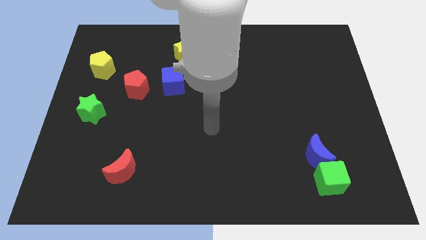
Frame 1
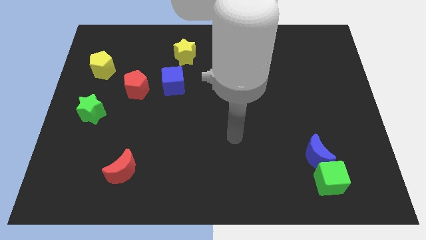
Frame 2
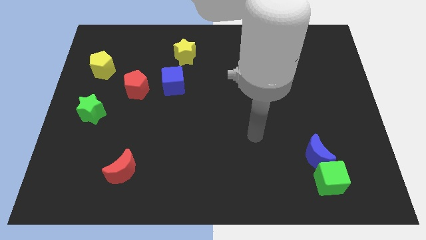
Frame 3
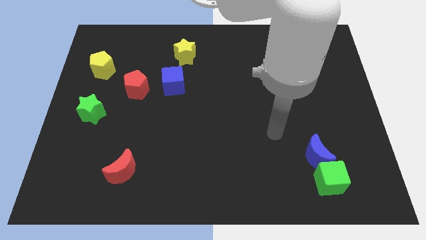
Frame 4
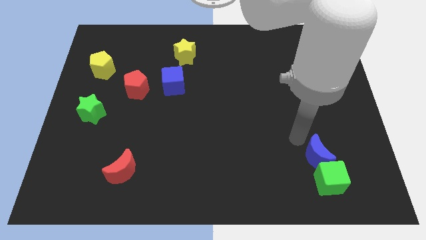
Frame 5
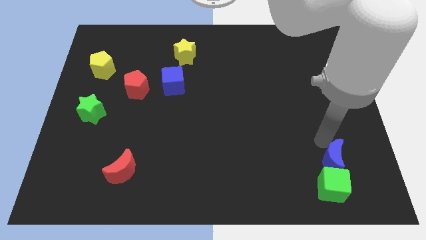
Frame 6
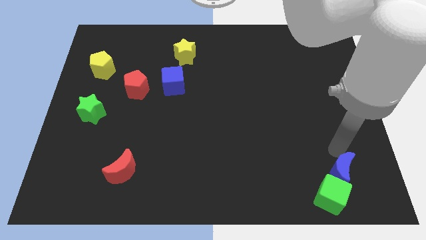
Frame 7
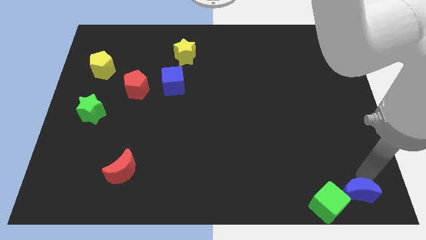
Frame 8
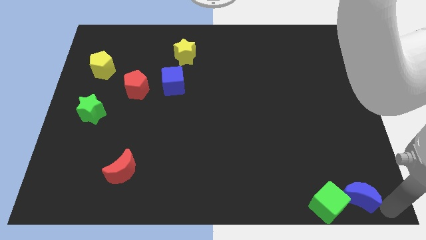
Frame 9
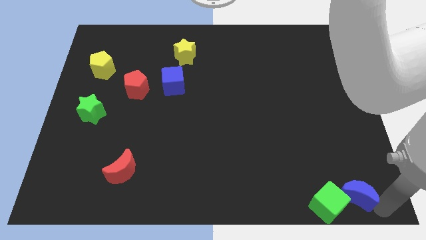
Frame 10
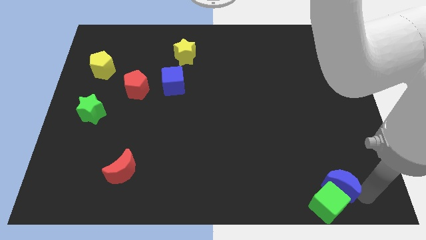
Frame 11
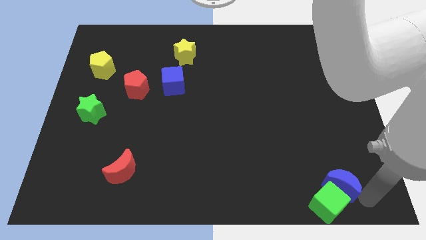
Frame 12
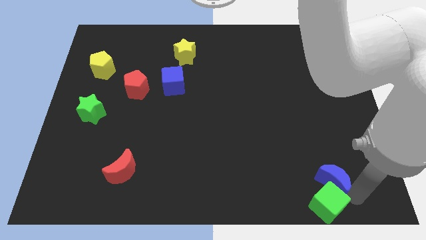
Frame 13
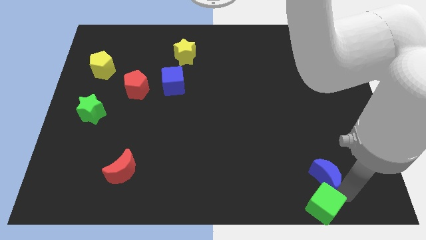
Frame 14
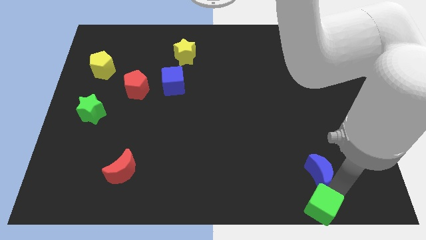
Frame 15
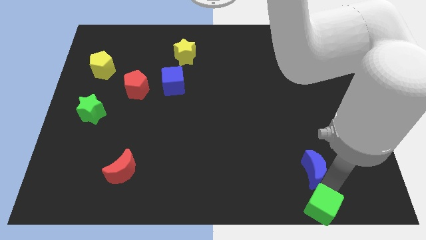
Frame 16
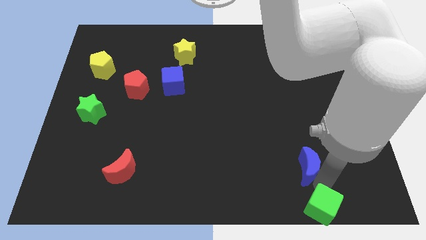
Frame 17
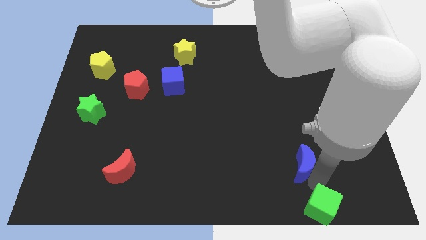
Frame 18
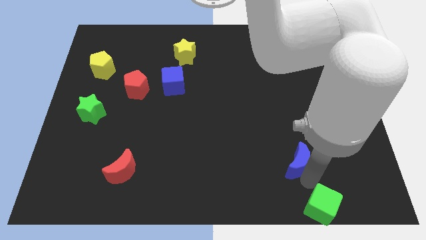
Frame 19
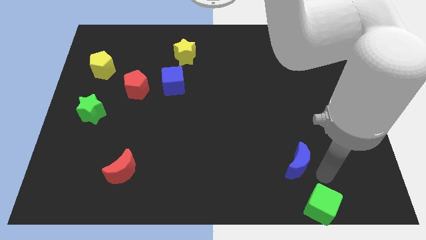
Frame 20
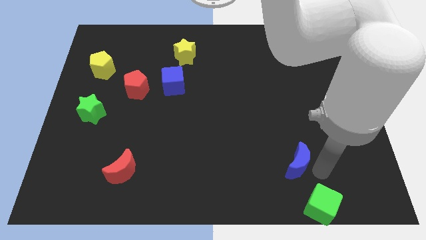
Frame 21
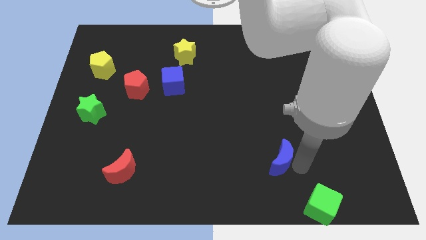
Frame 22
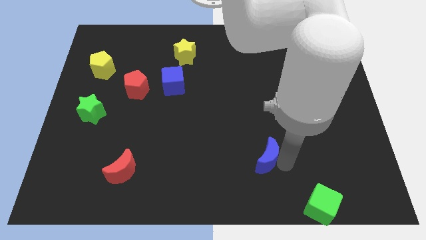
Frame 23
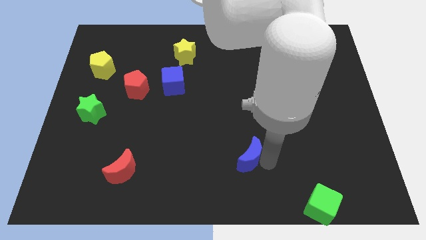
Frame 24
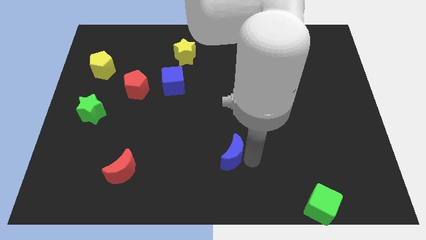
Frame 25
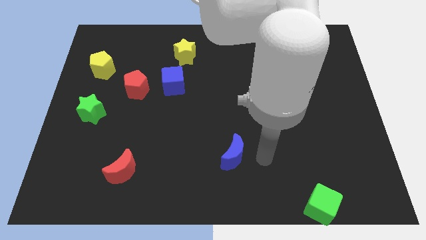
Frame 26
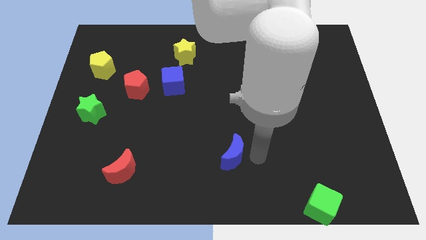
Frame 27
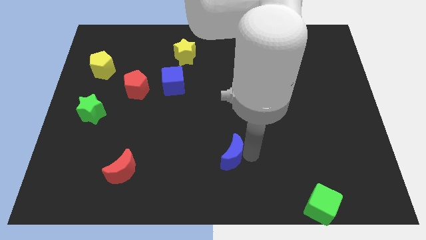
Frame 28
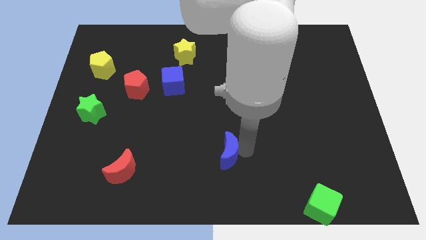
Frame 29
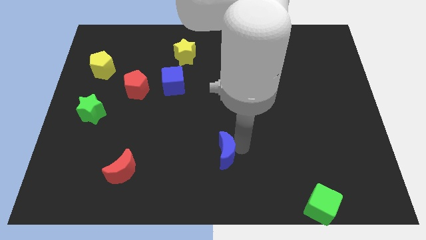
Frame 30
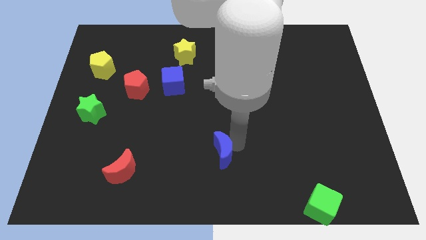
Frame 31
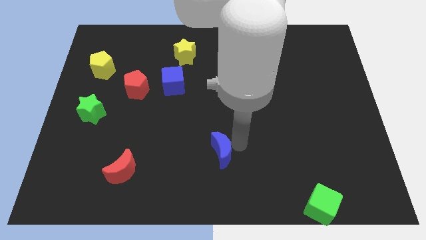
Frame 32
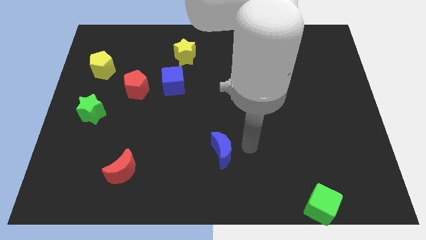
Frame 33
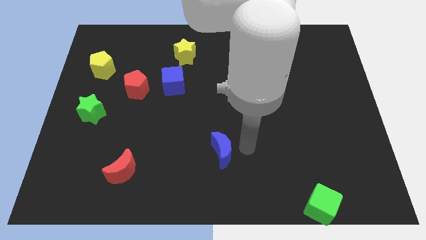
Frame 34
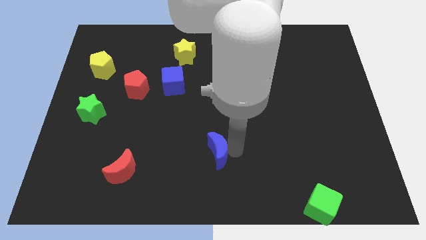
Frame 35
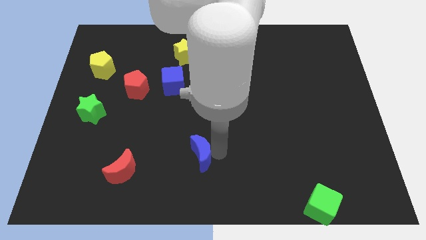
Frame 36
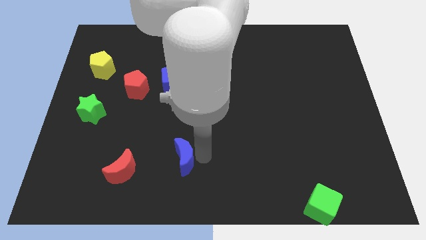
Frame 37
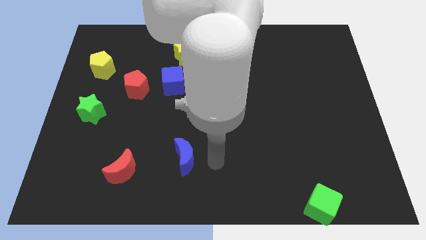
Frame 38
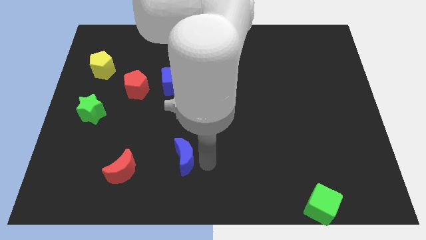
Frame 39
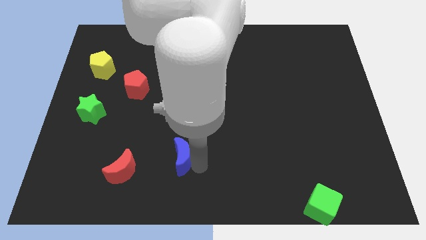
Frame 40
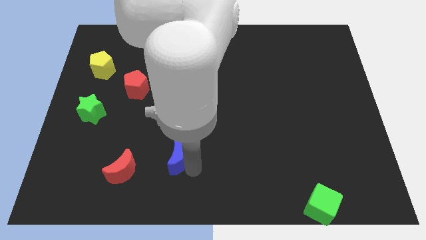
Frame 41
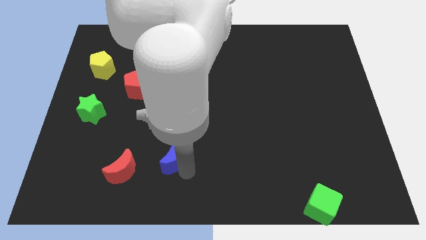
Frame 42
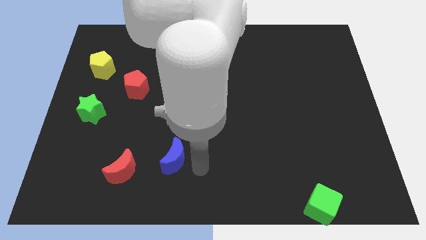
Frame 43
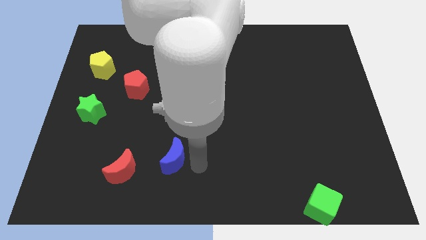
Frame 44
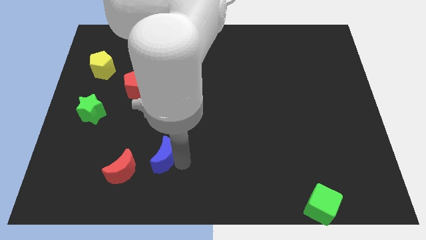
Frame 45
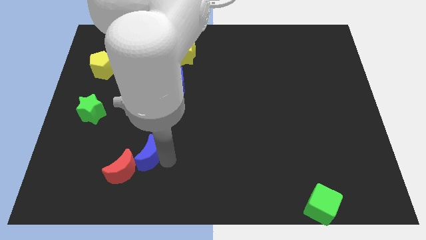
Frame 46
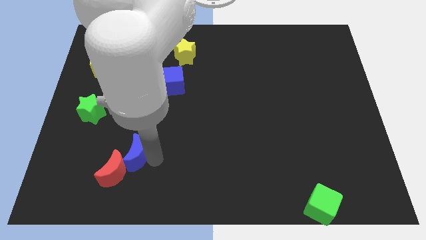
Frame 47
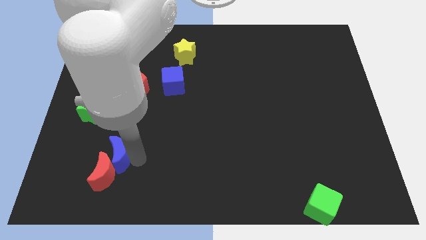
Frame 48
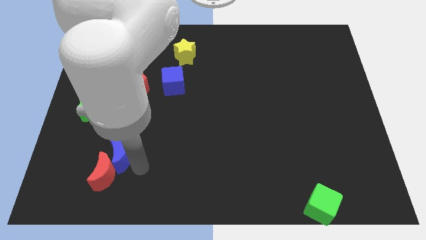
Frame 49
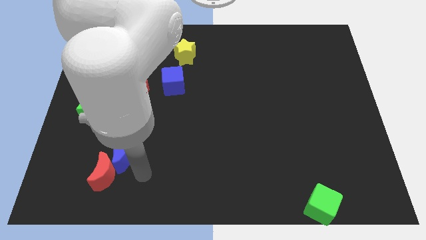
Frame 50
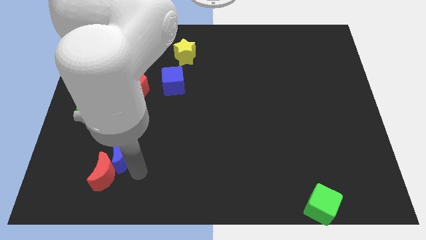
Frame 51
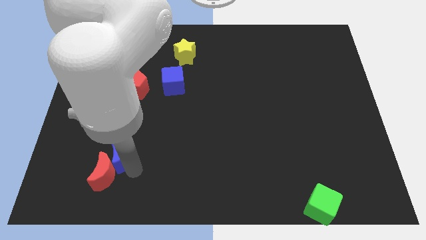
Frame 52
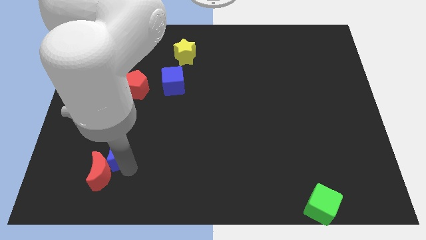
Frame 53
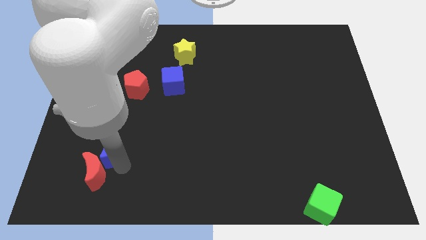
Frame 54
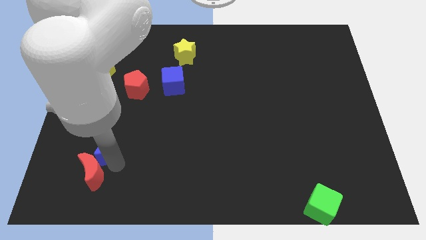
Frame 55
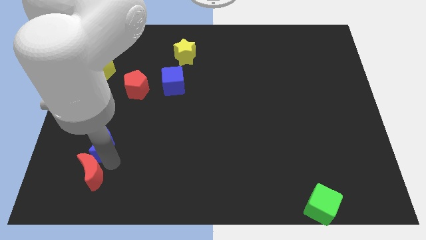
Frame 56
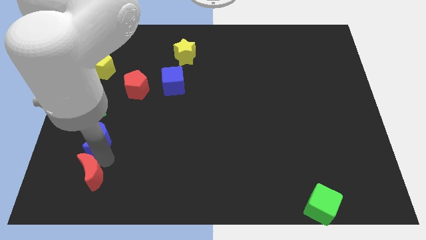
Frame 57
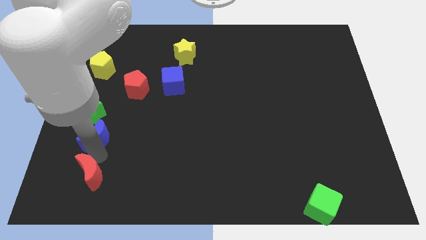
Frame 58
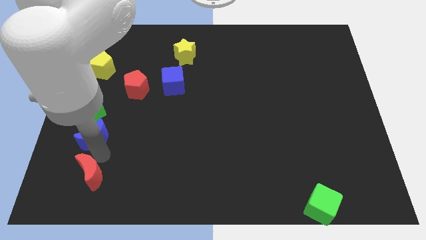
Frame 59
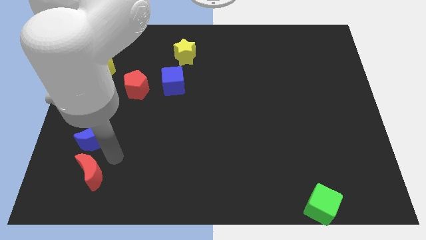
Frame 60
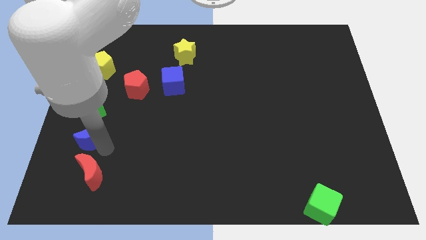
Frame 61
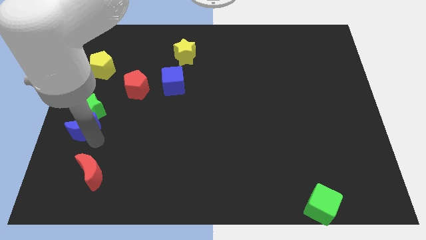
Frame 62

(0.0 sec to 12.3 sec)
move the blue moon to the left side of the board

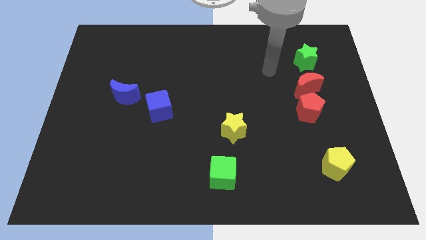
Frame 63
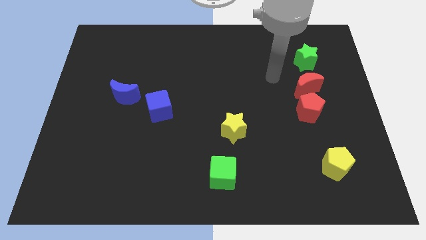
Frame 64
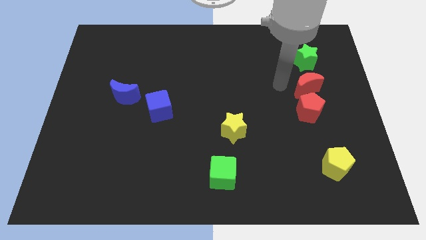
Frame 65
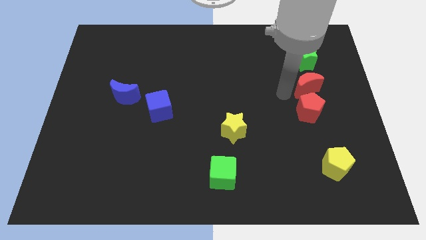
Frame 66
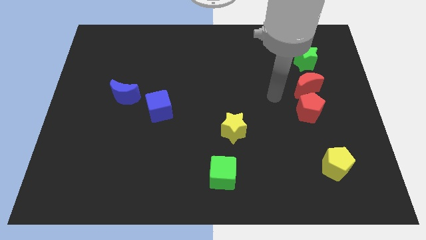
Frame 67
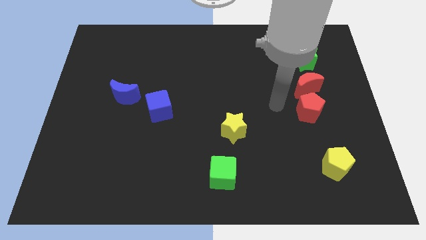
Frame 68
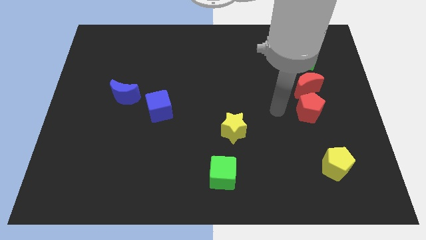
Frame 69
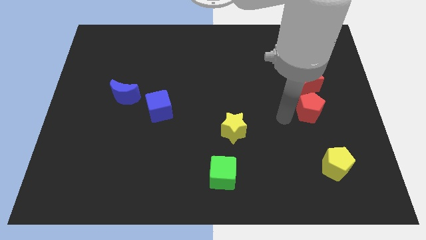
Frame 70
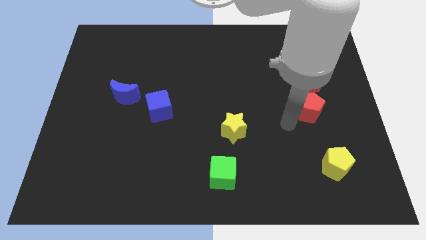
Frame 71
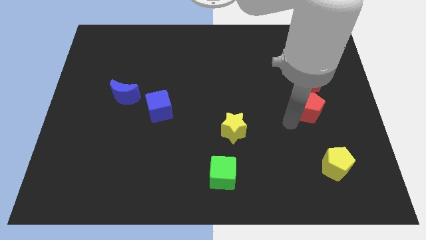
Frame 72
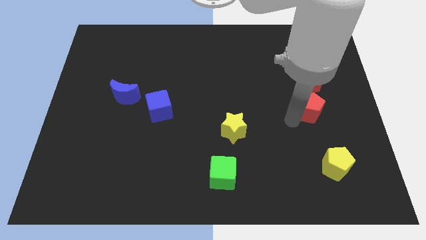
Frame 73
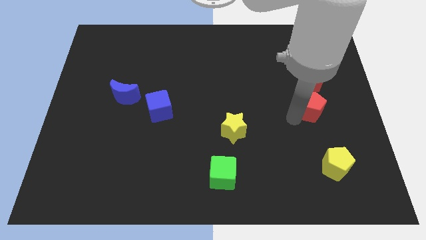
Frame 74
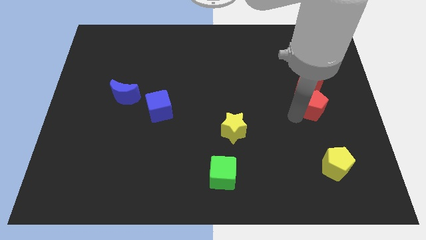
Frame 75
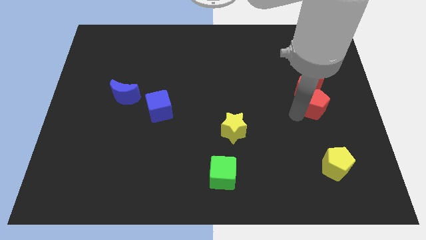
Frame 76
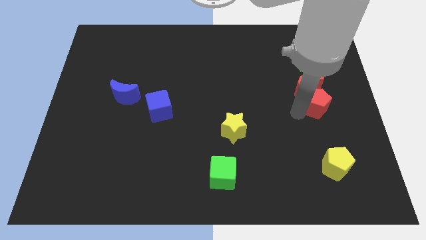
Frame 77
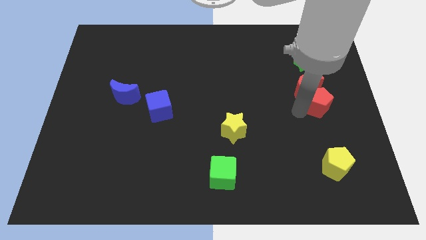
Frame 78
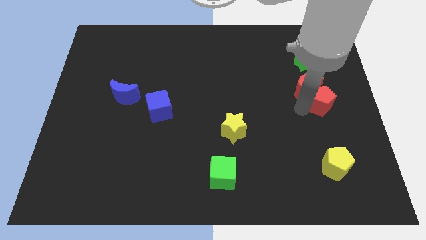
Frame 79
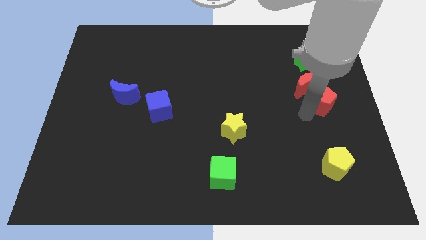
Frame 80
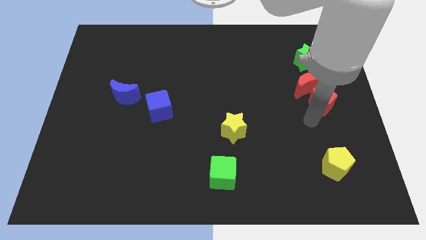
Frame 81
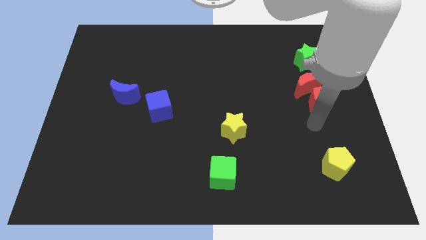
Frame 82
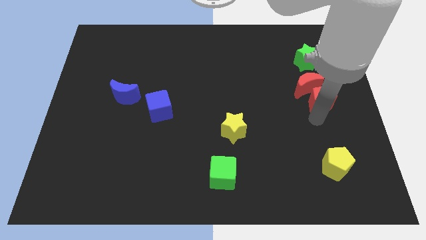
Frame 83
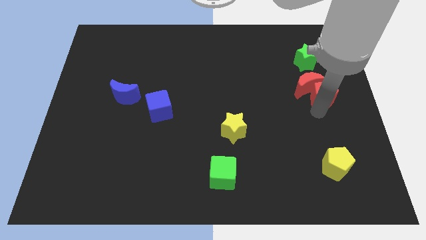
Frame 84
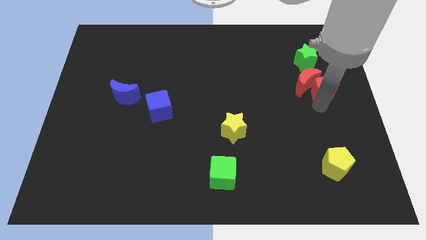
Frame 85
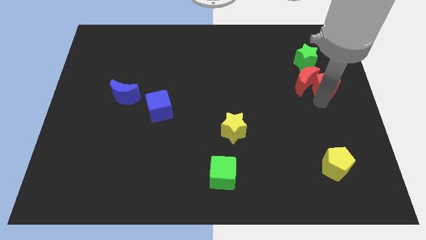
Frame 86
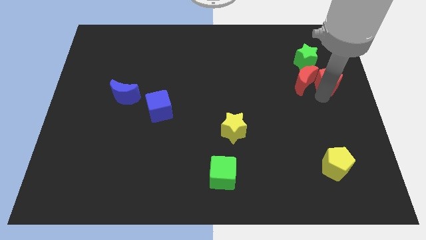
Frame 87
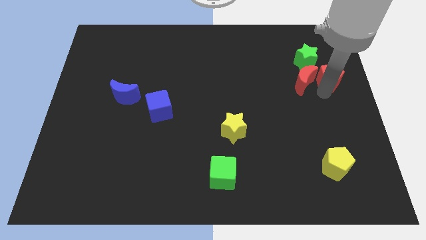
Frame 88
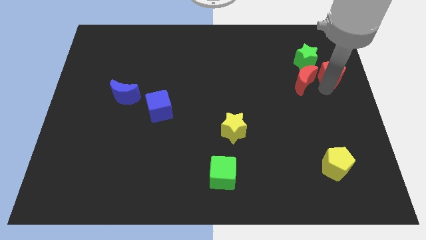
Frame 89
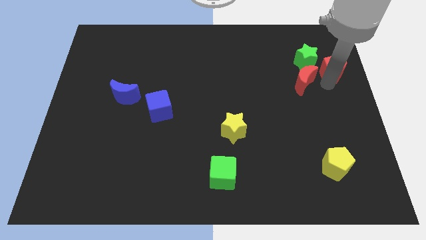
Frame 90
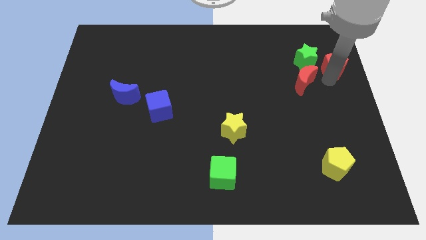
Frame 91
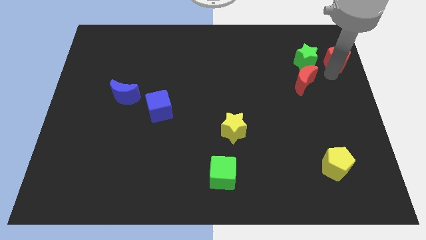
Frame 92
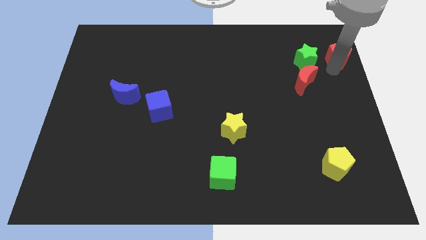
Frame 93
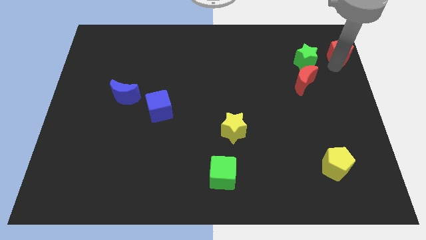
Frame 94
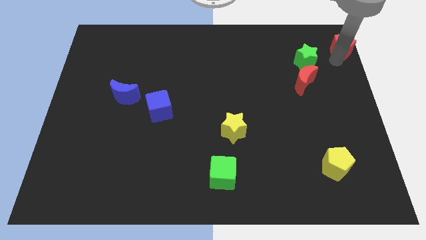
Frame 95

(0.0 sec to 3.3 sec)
move the red pentagon to the top right corner
